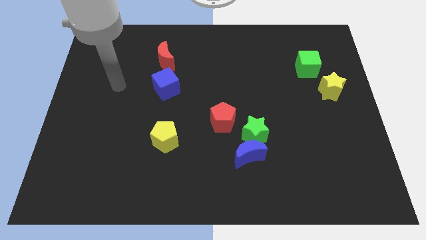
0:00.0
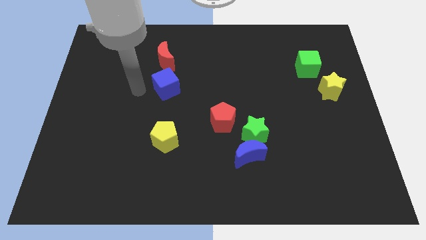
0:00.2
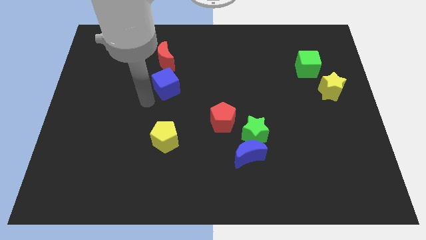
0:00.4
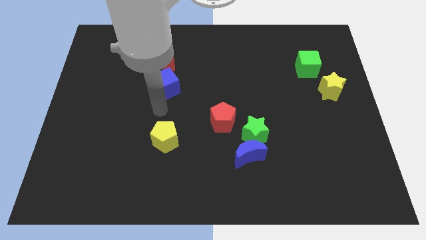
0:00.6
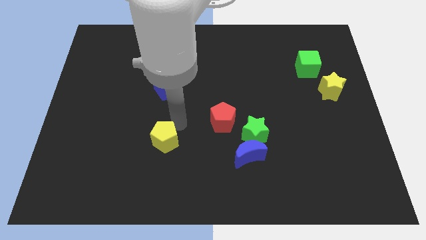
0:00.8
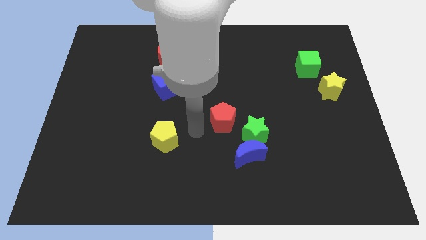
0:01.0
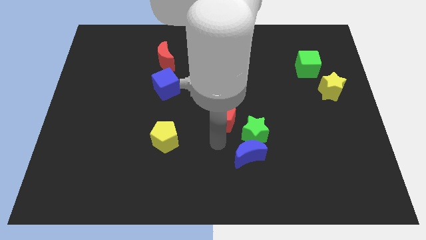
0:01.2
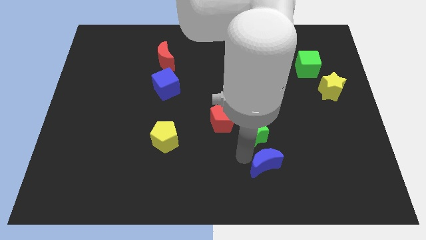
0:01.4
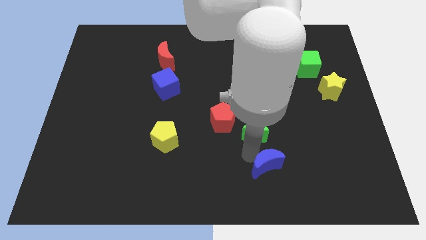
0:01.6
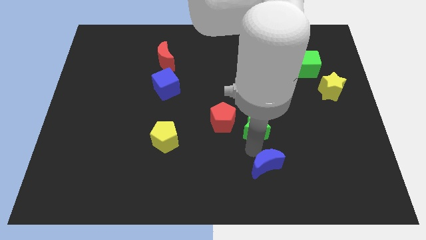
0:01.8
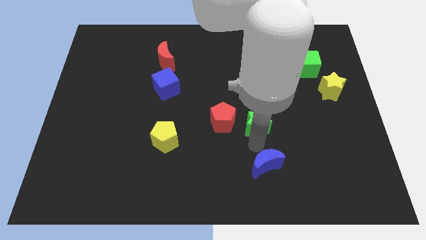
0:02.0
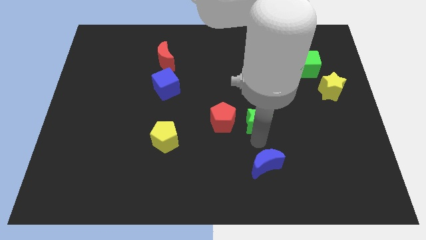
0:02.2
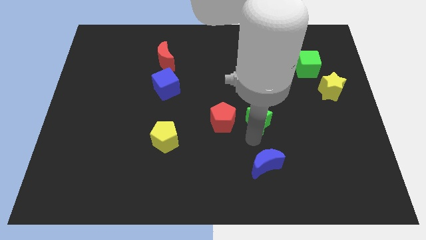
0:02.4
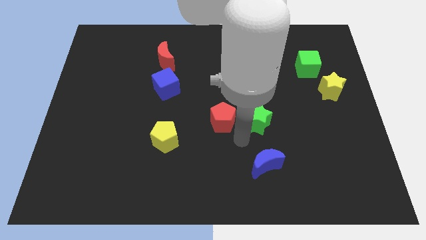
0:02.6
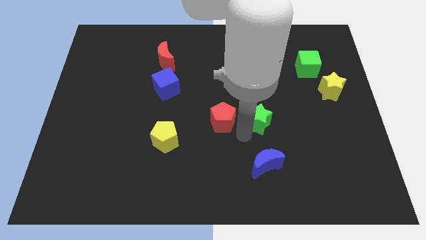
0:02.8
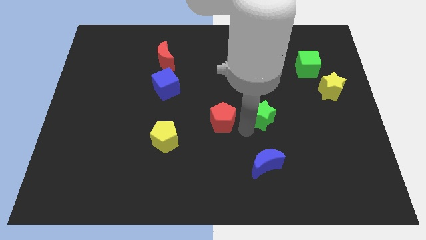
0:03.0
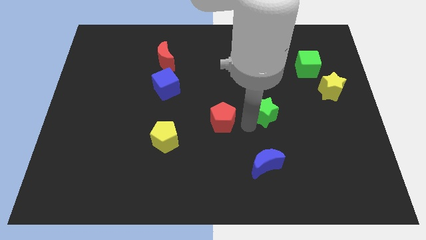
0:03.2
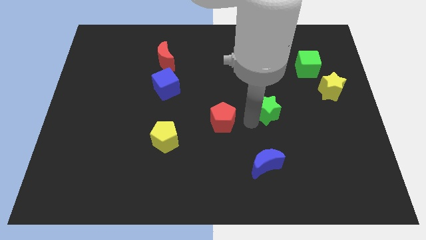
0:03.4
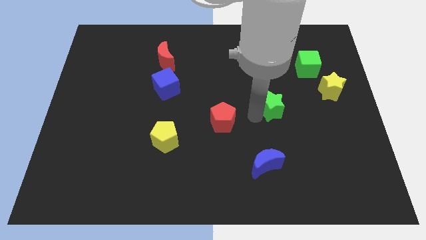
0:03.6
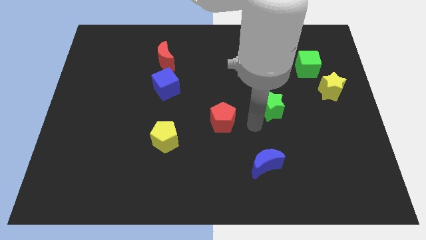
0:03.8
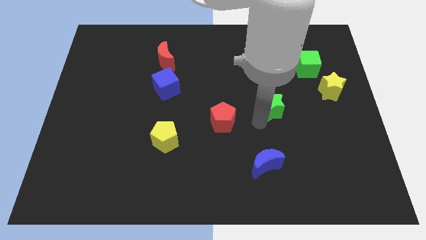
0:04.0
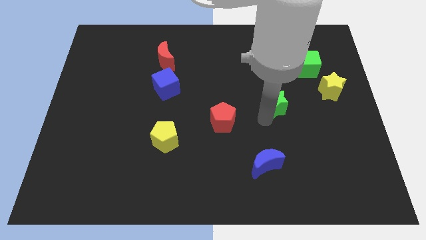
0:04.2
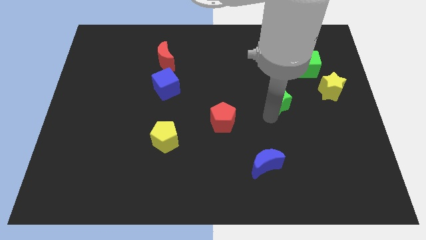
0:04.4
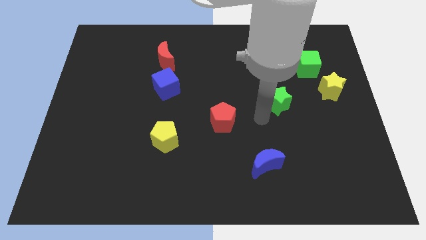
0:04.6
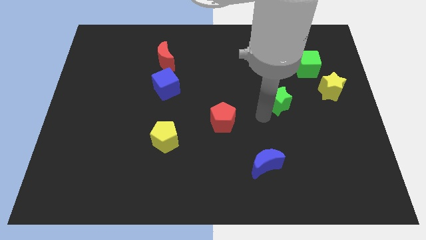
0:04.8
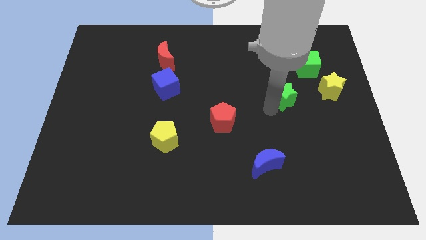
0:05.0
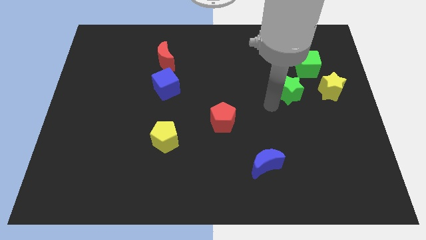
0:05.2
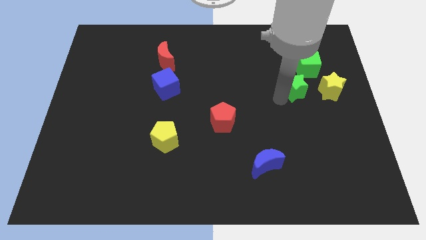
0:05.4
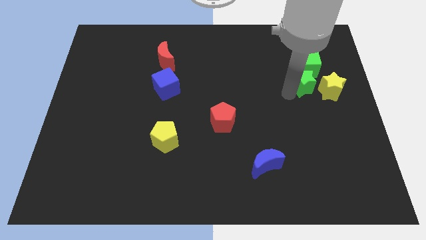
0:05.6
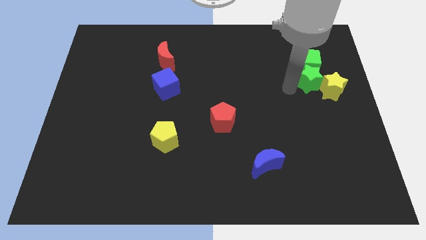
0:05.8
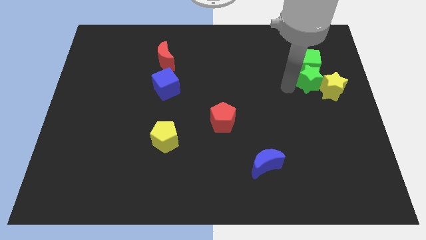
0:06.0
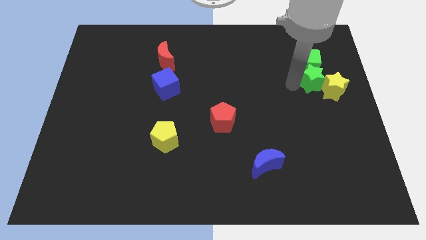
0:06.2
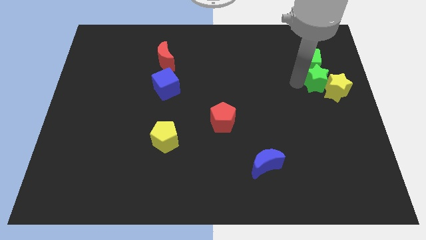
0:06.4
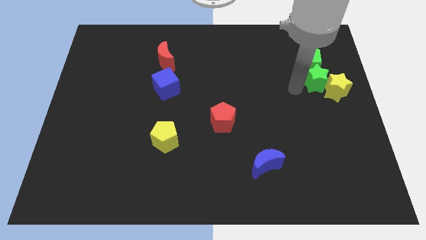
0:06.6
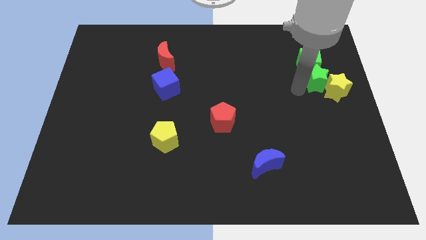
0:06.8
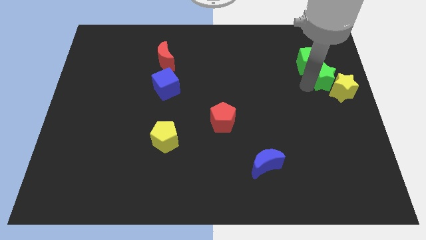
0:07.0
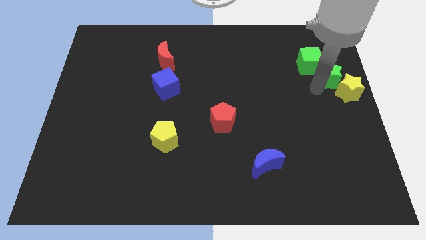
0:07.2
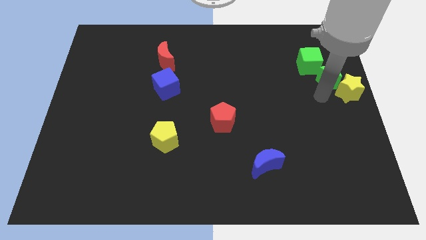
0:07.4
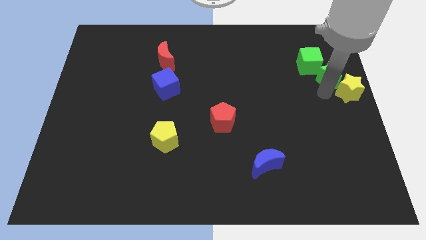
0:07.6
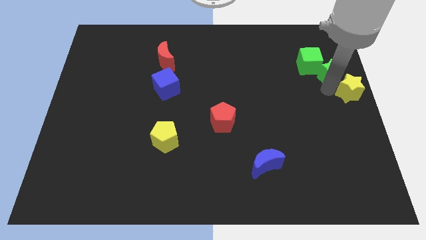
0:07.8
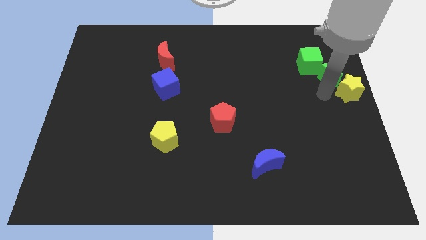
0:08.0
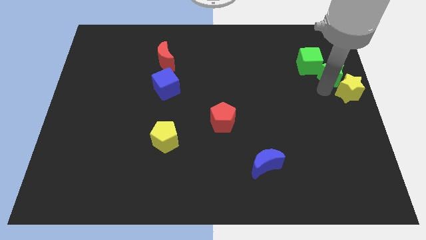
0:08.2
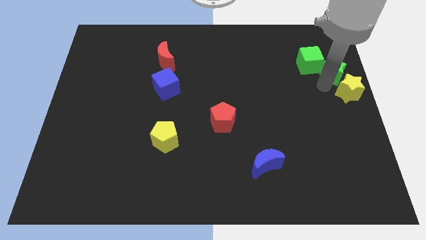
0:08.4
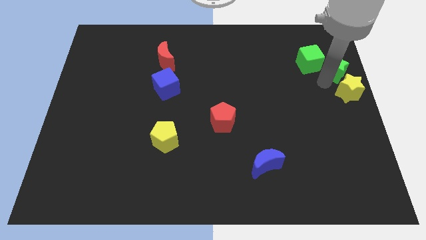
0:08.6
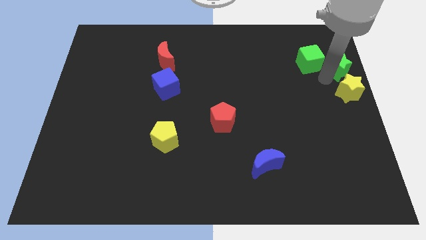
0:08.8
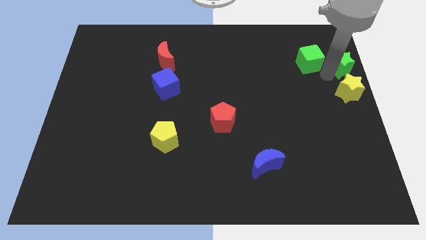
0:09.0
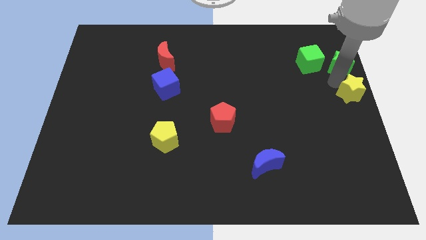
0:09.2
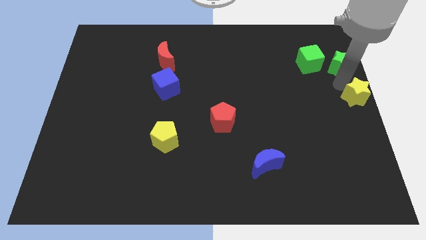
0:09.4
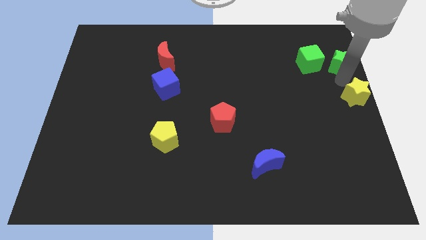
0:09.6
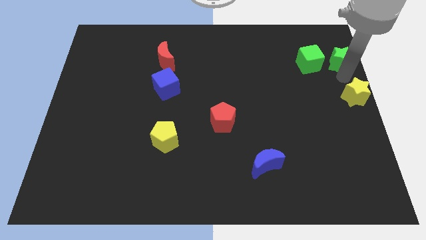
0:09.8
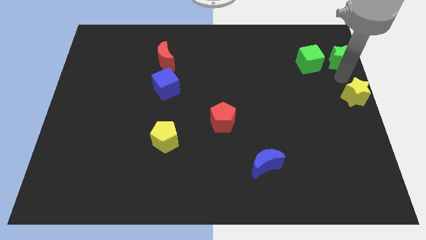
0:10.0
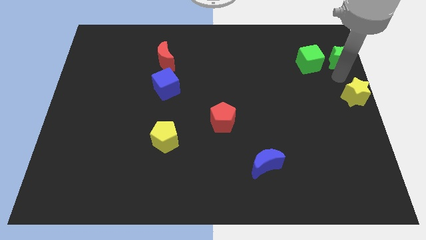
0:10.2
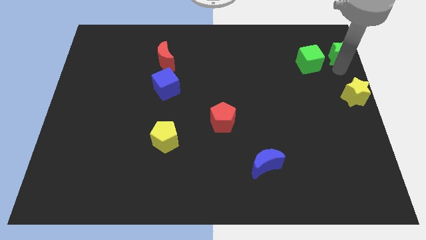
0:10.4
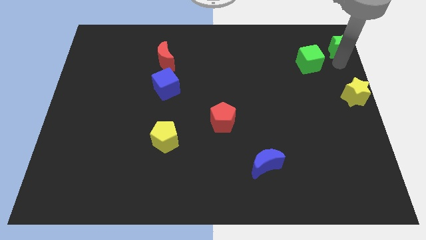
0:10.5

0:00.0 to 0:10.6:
move the green star to the top right

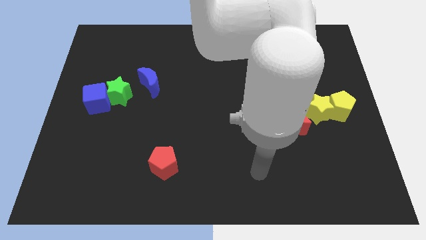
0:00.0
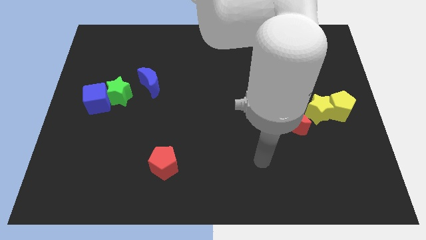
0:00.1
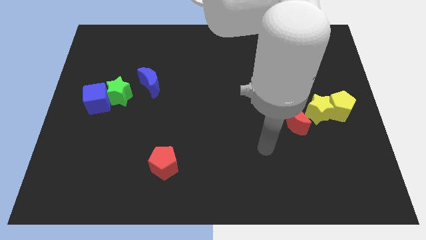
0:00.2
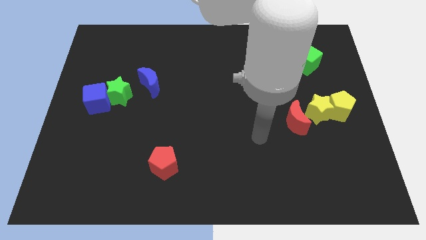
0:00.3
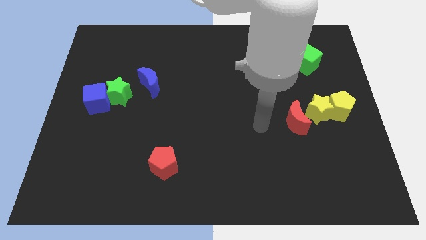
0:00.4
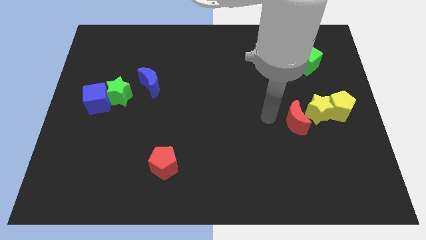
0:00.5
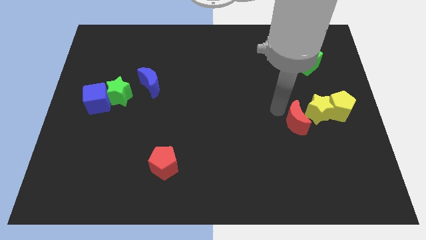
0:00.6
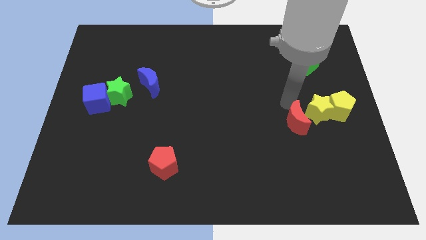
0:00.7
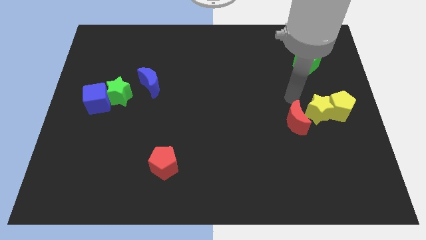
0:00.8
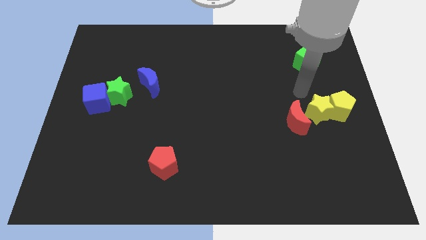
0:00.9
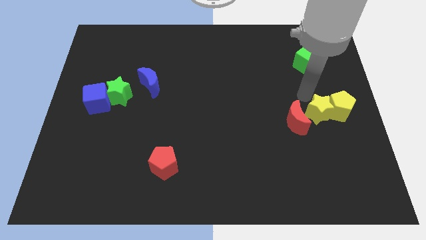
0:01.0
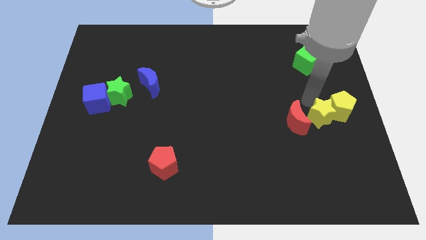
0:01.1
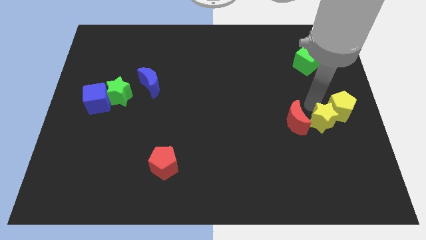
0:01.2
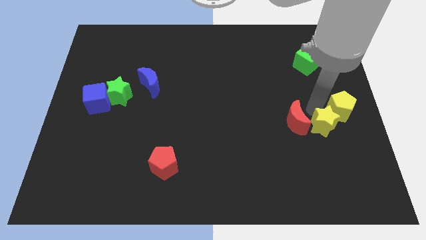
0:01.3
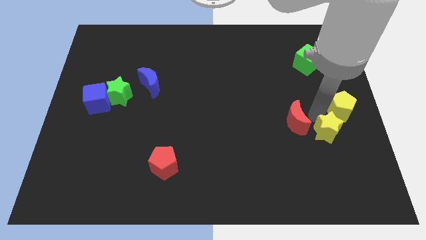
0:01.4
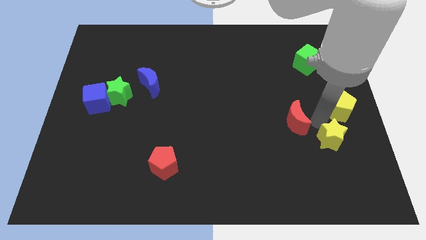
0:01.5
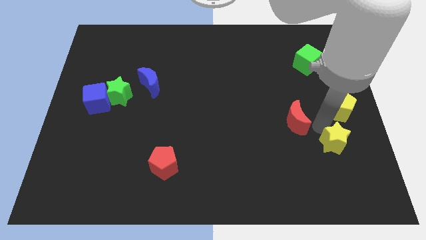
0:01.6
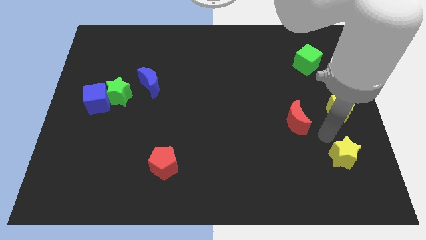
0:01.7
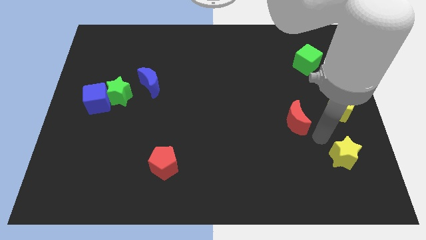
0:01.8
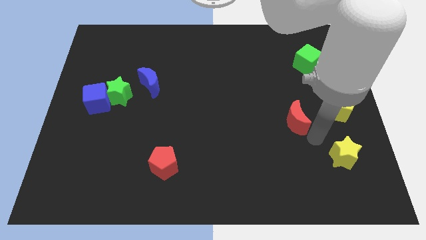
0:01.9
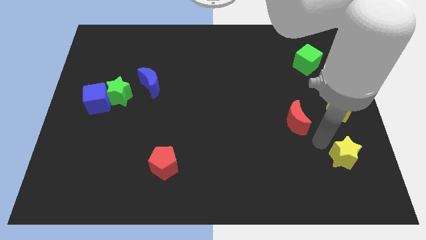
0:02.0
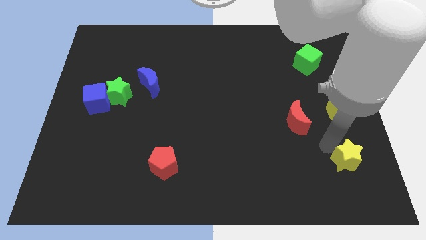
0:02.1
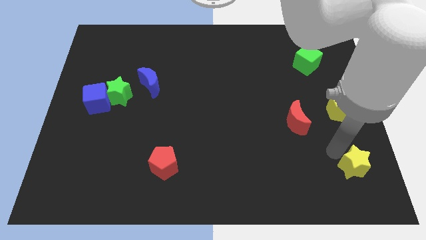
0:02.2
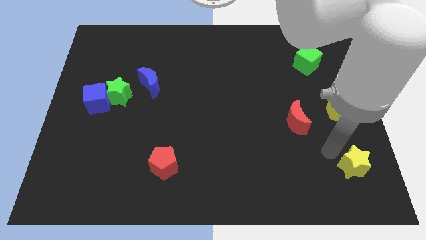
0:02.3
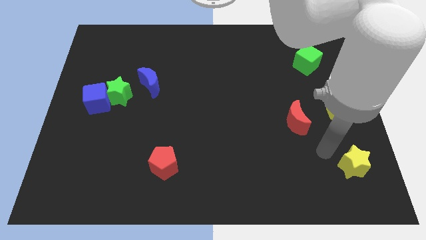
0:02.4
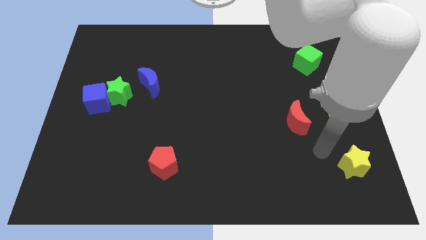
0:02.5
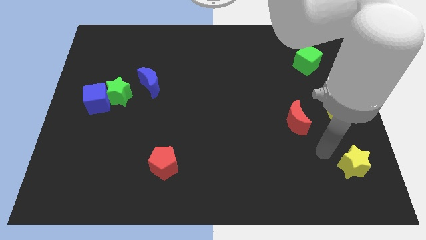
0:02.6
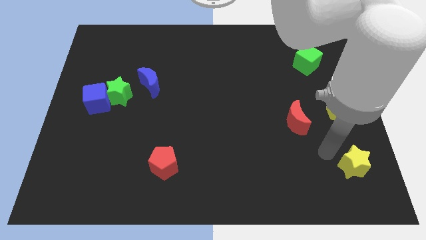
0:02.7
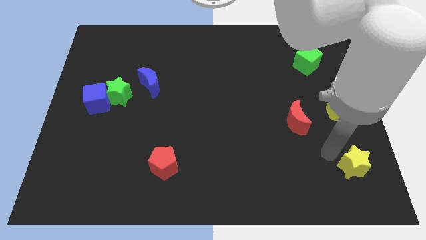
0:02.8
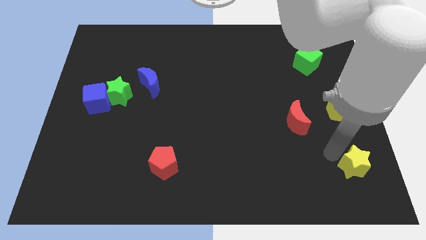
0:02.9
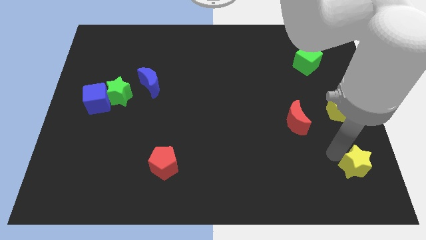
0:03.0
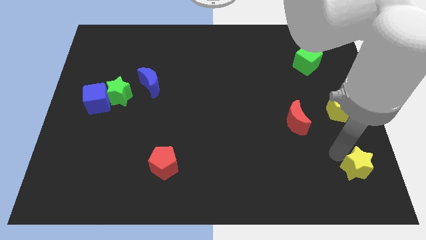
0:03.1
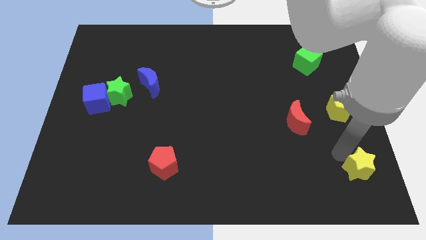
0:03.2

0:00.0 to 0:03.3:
slide the yellow star to the bottom right
